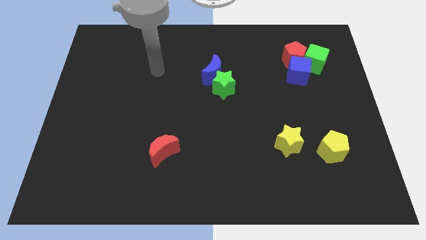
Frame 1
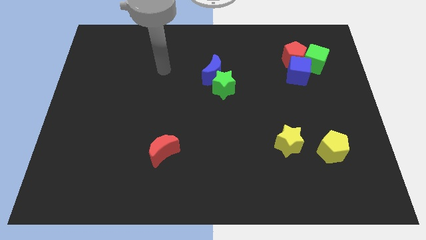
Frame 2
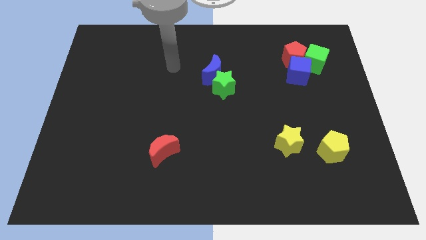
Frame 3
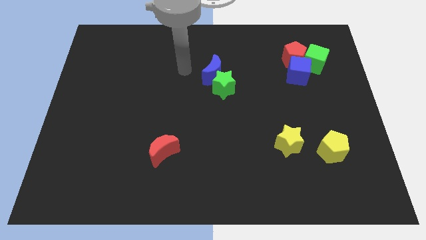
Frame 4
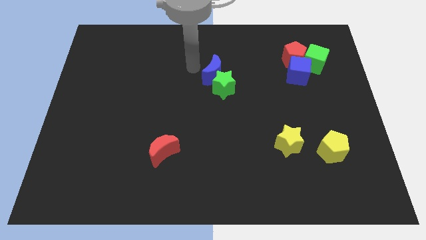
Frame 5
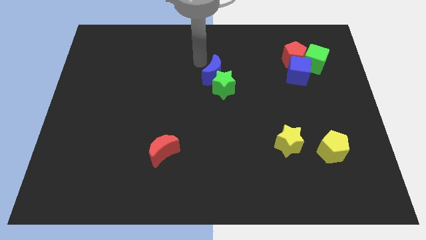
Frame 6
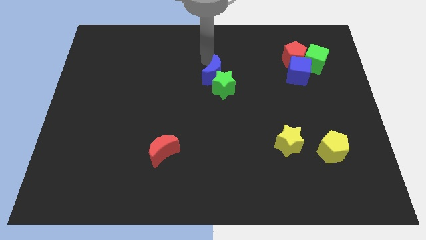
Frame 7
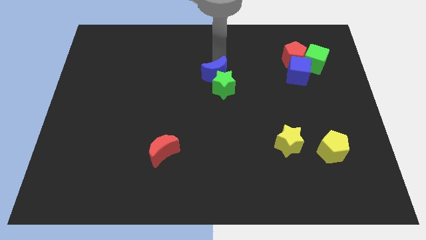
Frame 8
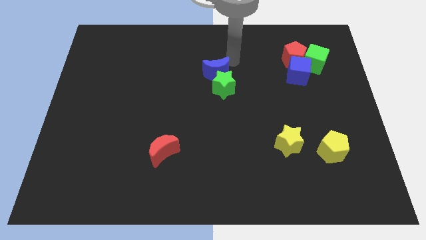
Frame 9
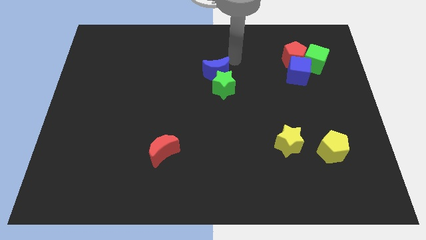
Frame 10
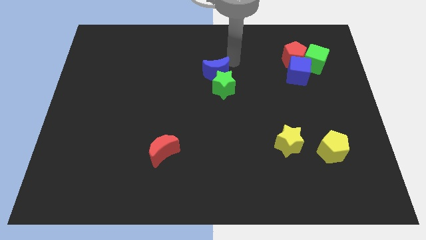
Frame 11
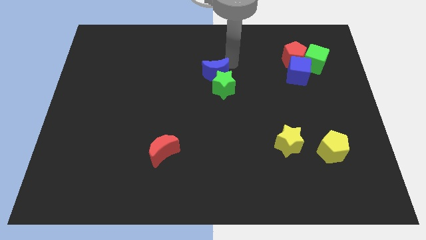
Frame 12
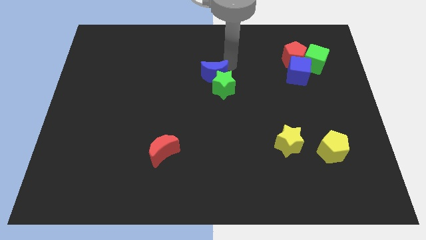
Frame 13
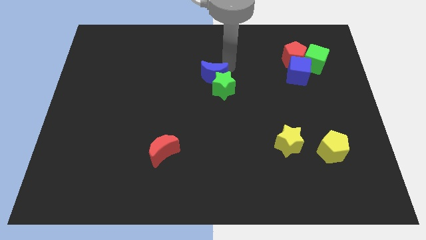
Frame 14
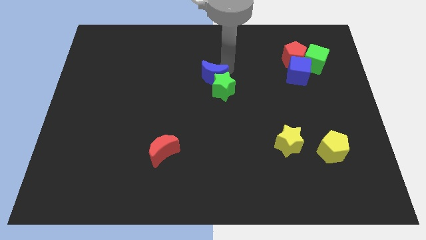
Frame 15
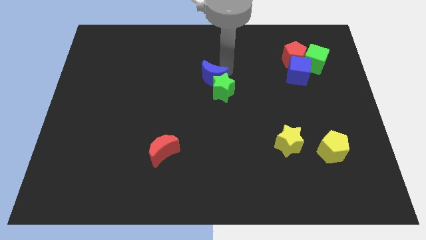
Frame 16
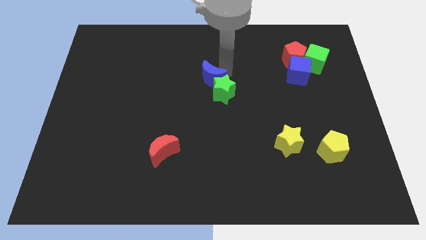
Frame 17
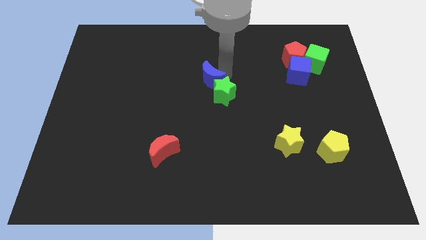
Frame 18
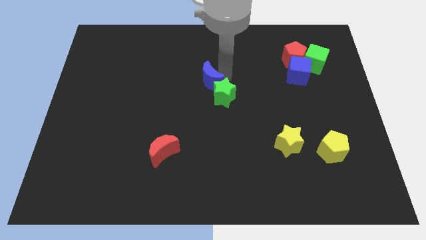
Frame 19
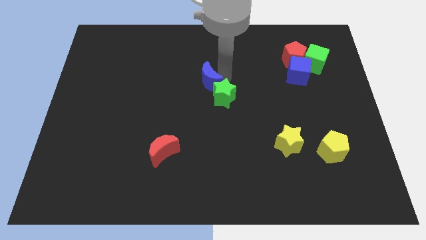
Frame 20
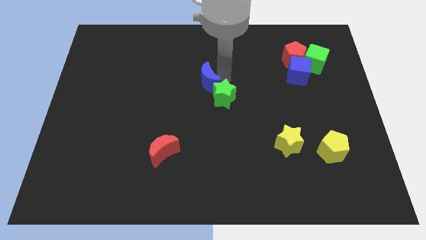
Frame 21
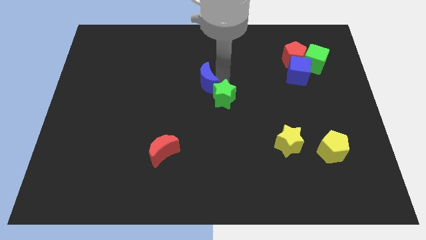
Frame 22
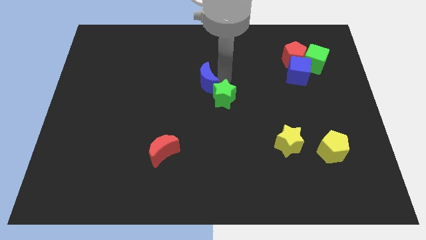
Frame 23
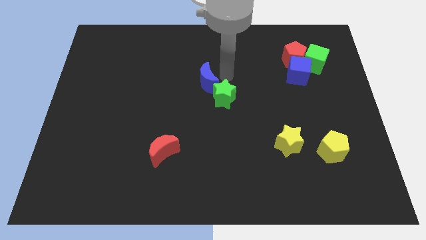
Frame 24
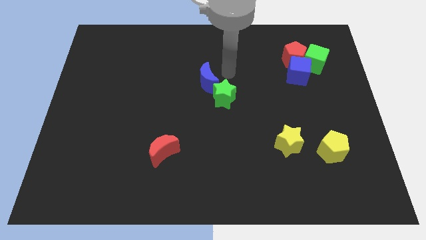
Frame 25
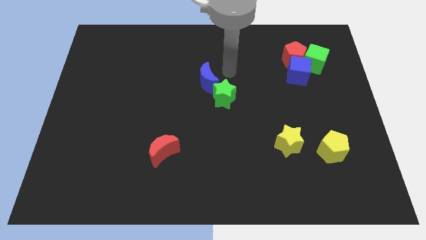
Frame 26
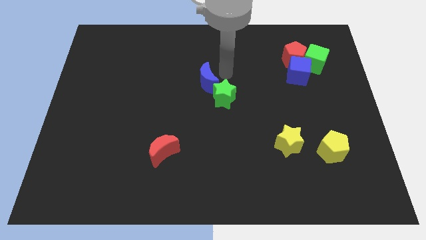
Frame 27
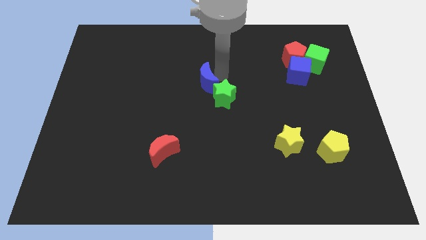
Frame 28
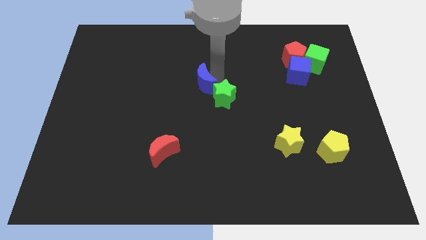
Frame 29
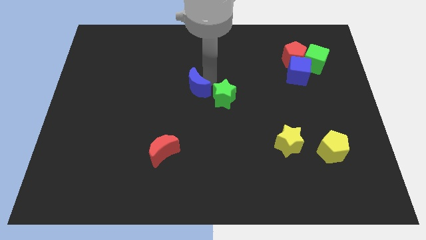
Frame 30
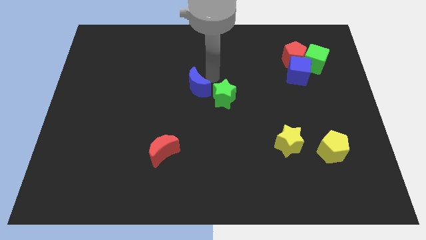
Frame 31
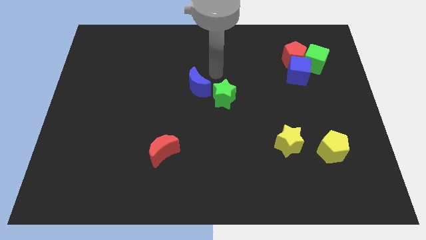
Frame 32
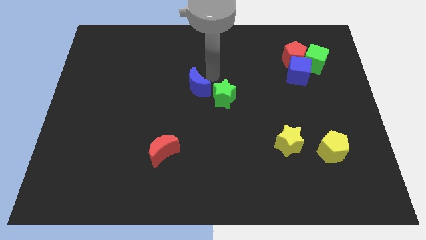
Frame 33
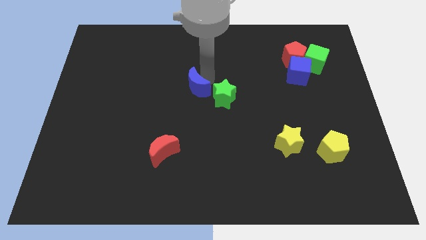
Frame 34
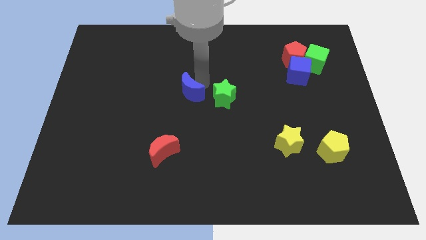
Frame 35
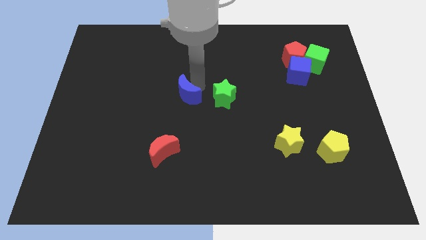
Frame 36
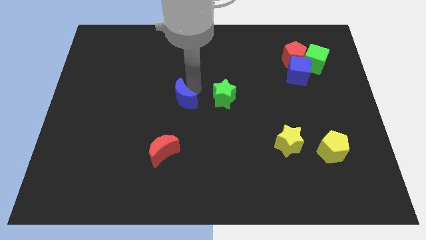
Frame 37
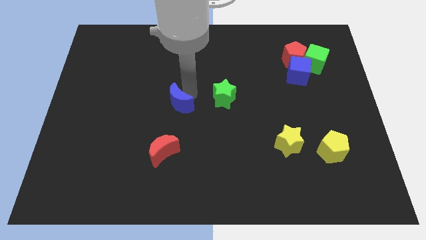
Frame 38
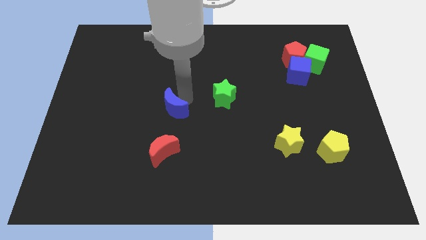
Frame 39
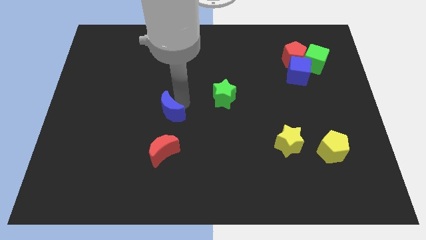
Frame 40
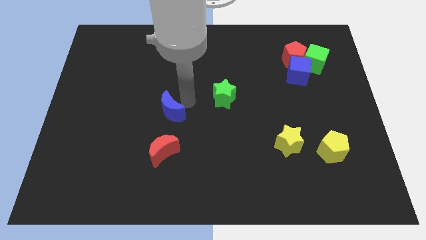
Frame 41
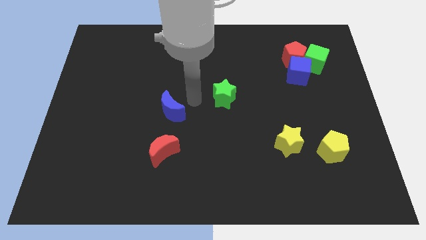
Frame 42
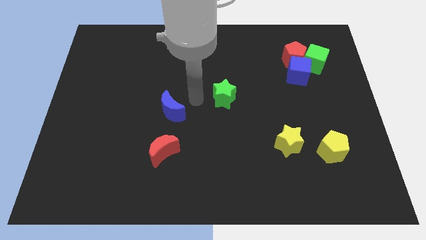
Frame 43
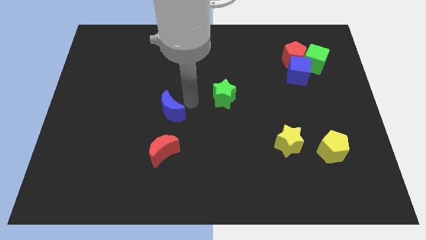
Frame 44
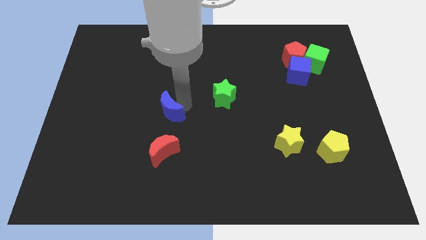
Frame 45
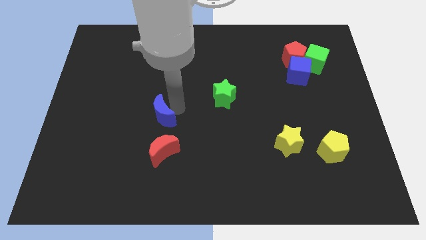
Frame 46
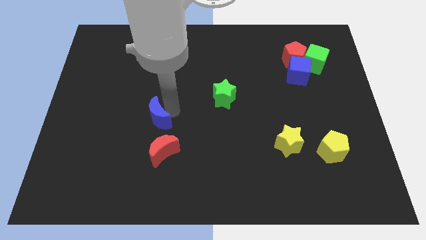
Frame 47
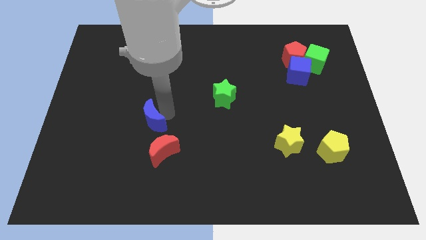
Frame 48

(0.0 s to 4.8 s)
push the blue moon down and left diagonally

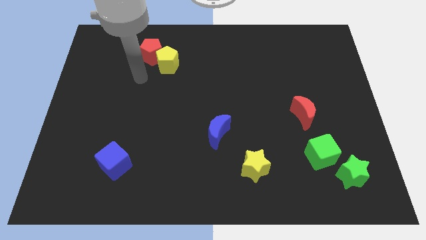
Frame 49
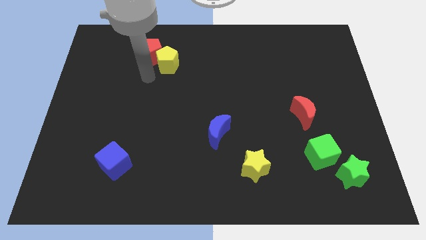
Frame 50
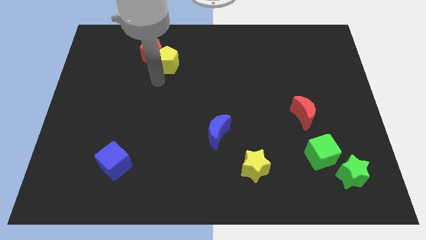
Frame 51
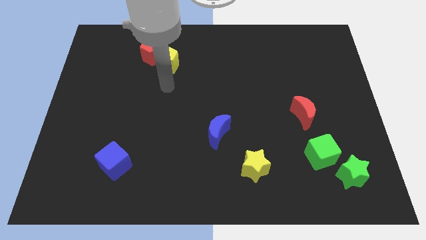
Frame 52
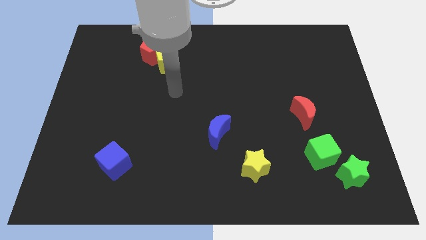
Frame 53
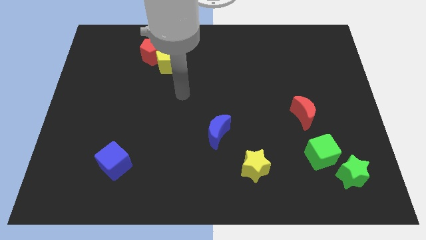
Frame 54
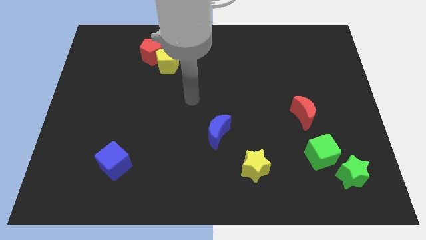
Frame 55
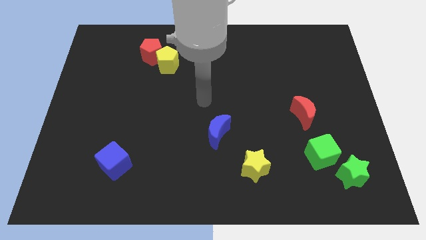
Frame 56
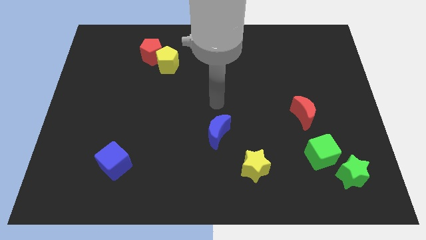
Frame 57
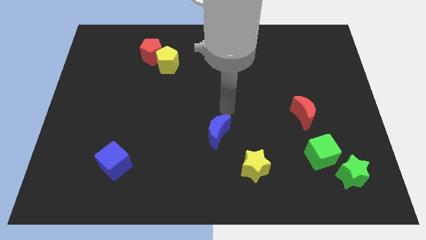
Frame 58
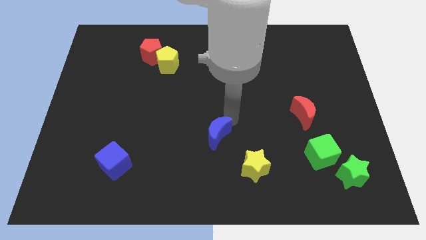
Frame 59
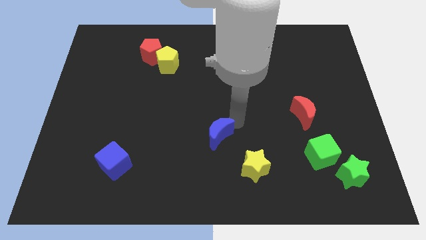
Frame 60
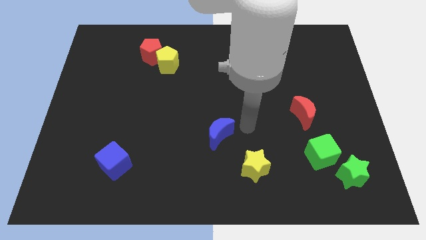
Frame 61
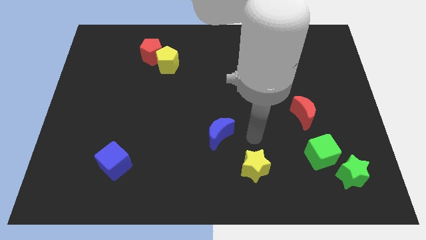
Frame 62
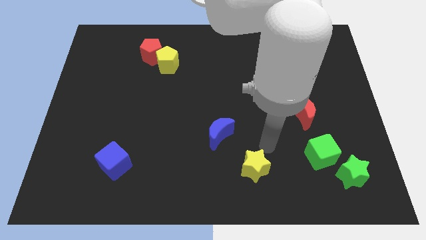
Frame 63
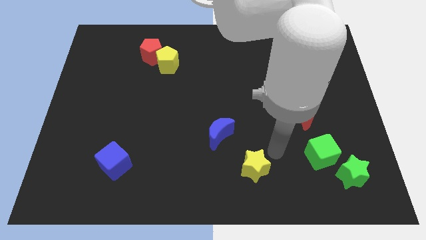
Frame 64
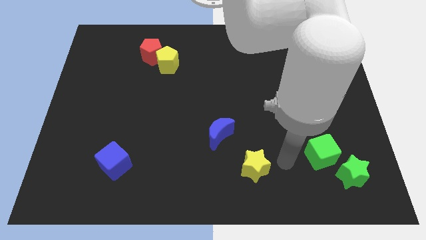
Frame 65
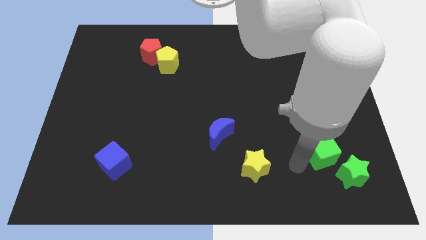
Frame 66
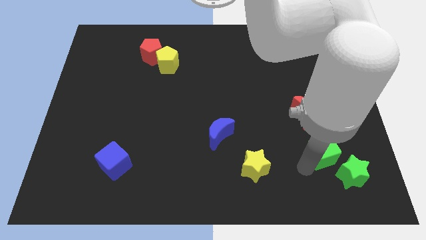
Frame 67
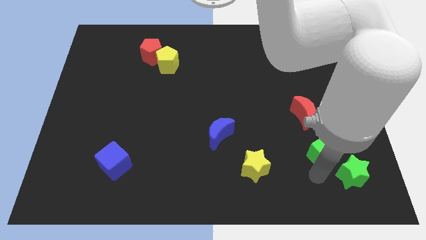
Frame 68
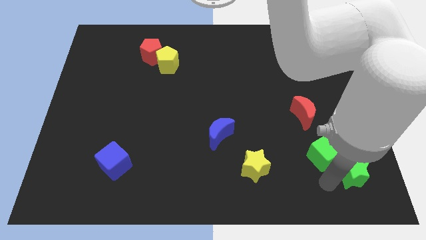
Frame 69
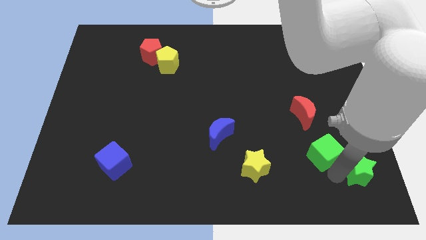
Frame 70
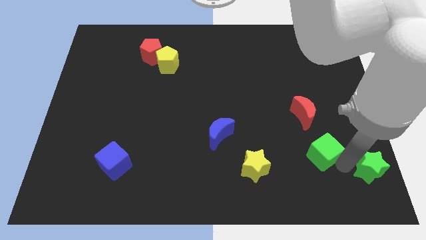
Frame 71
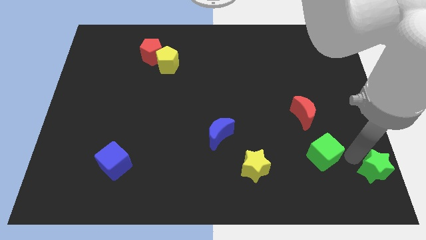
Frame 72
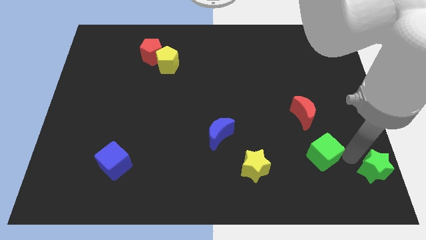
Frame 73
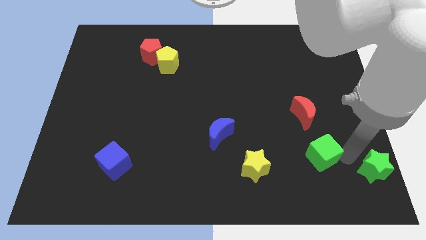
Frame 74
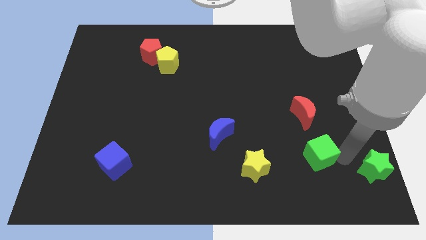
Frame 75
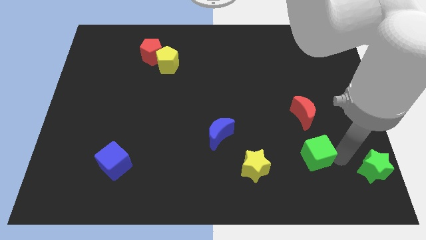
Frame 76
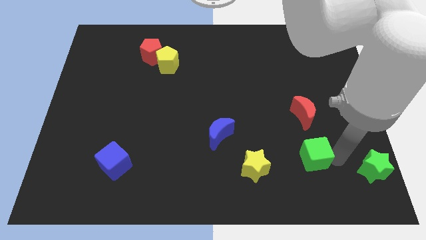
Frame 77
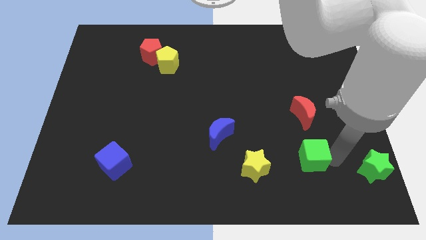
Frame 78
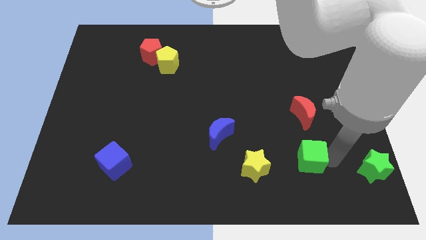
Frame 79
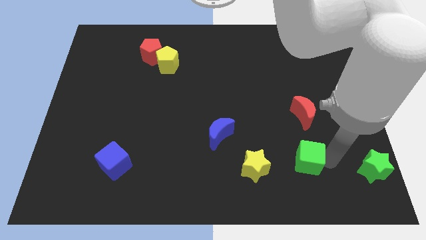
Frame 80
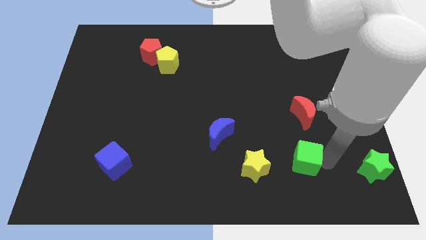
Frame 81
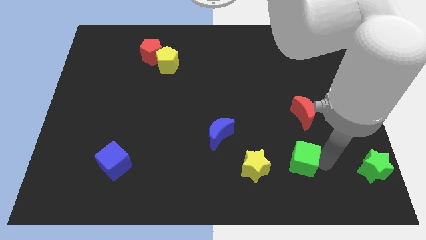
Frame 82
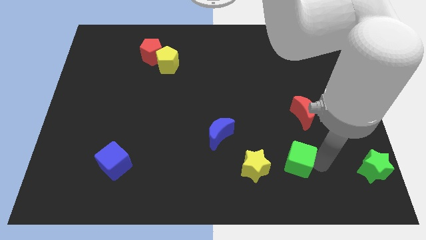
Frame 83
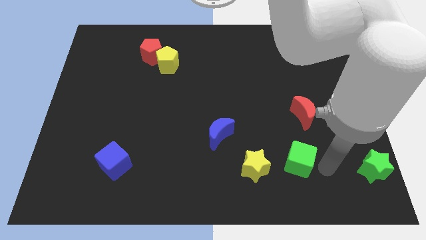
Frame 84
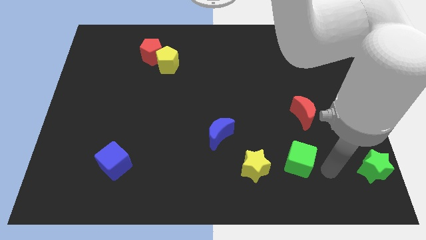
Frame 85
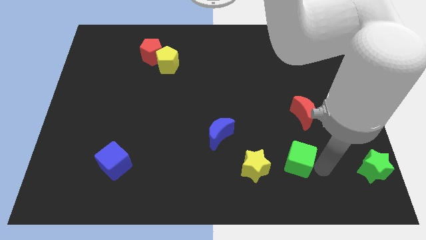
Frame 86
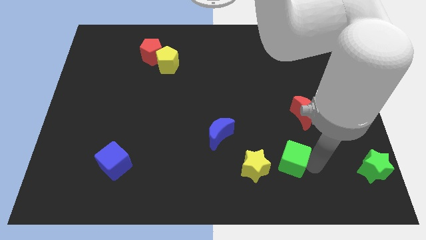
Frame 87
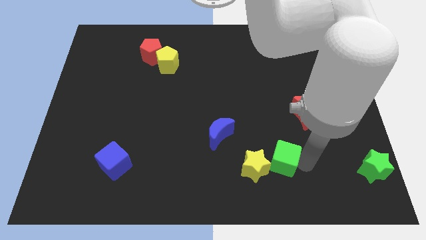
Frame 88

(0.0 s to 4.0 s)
slide the green cube a bit to the left
